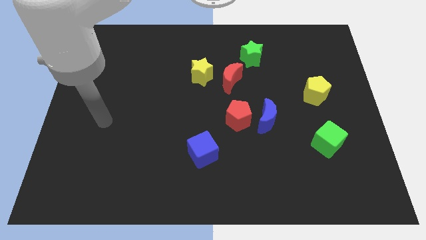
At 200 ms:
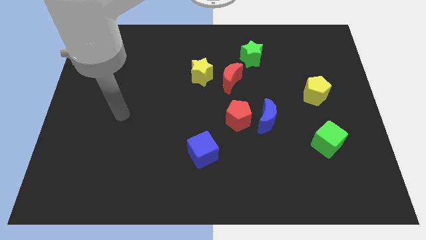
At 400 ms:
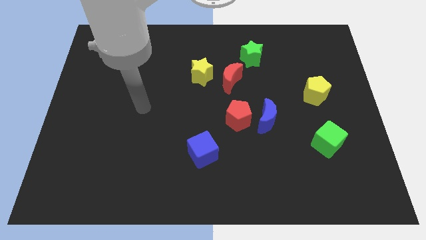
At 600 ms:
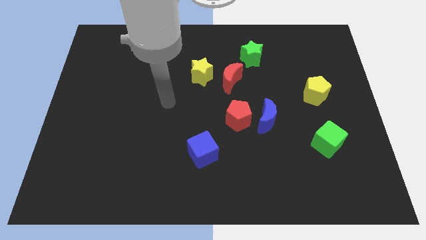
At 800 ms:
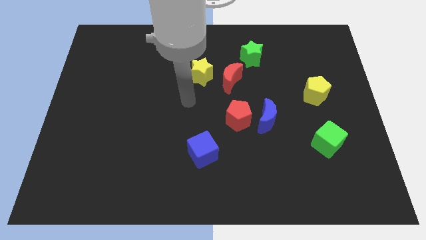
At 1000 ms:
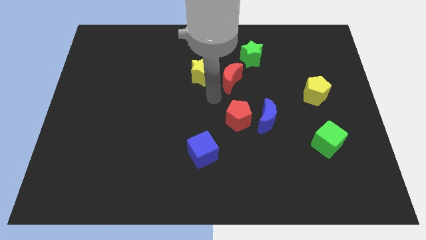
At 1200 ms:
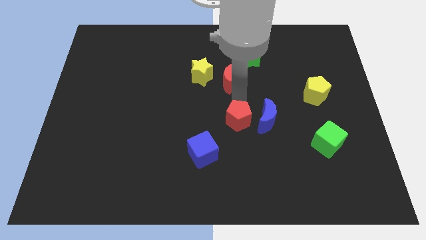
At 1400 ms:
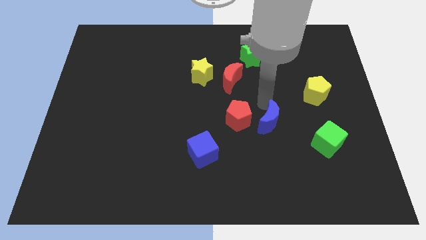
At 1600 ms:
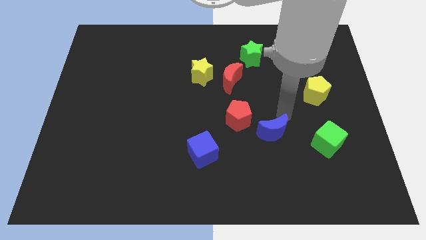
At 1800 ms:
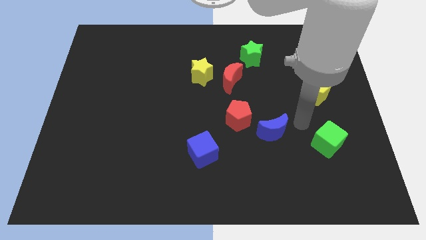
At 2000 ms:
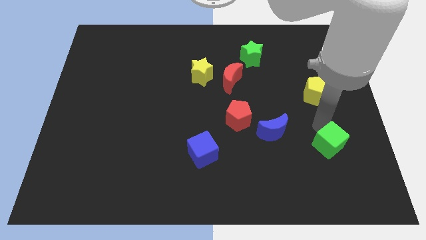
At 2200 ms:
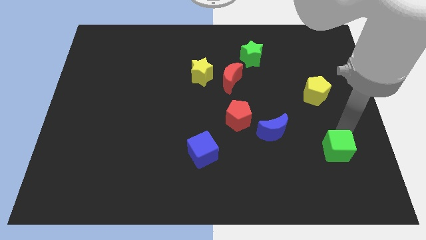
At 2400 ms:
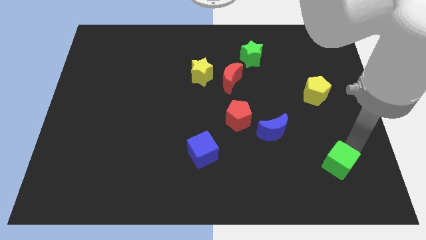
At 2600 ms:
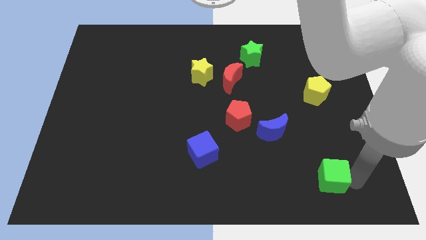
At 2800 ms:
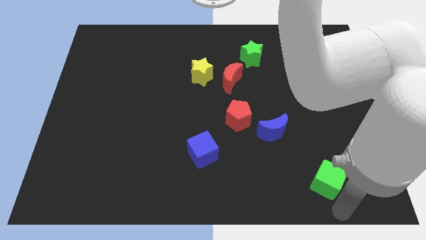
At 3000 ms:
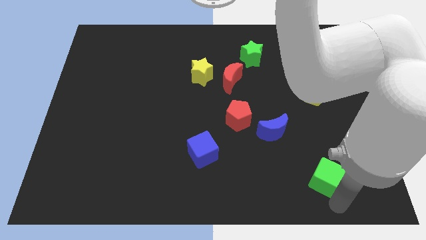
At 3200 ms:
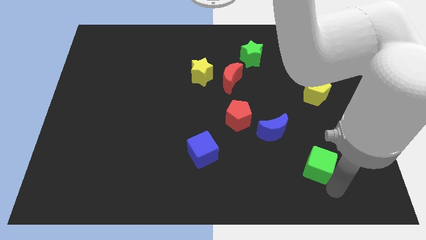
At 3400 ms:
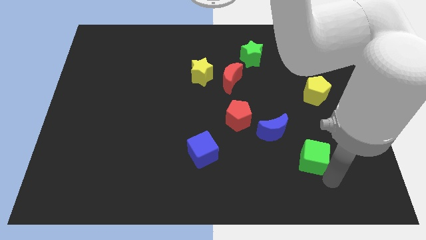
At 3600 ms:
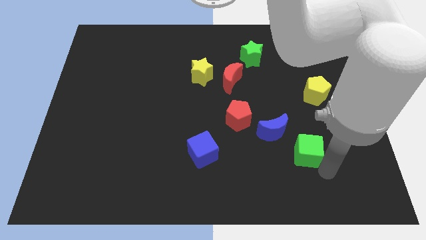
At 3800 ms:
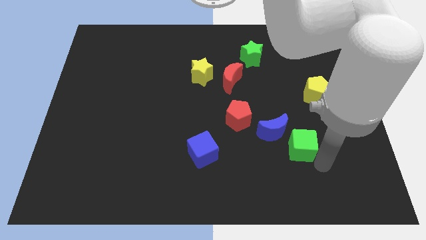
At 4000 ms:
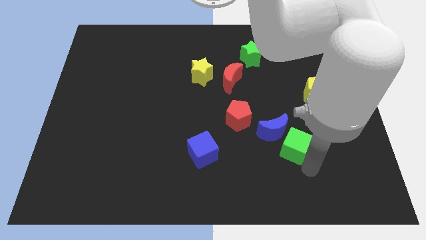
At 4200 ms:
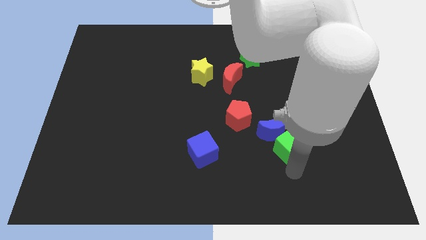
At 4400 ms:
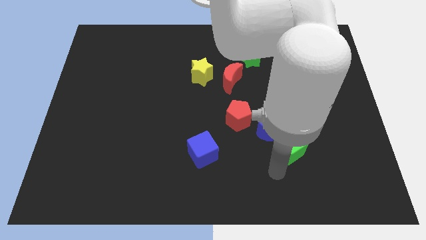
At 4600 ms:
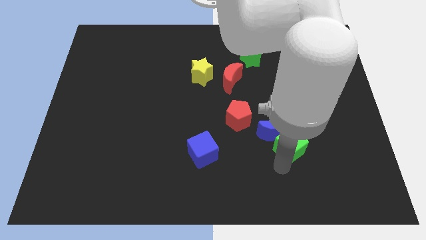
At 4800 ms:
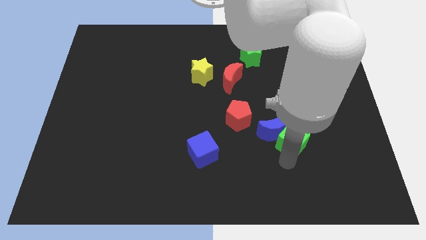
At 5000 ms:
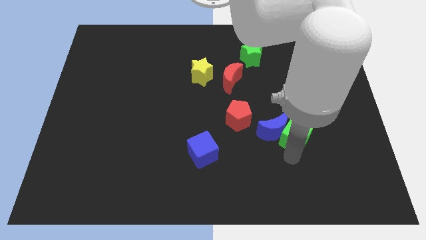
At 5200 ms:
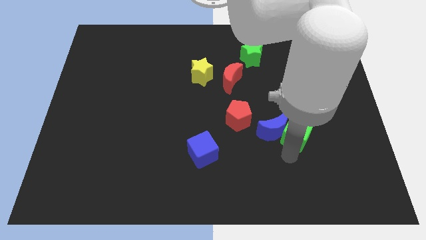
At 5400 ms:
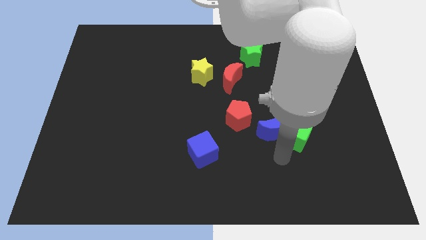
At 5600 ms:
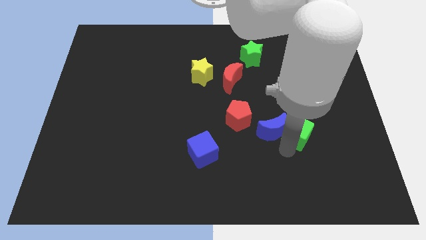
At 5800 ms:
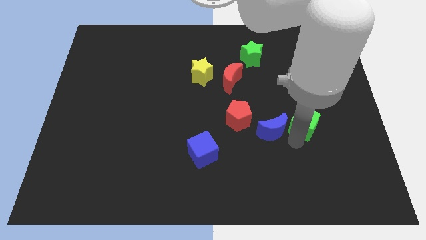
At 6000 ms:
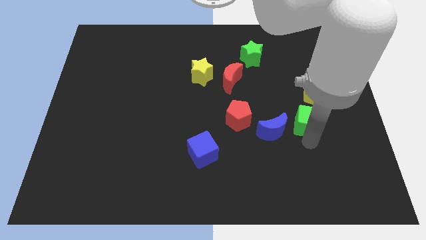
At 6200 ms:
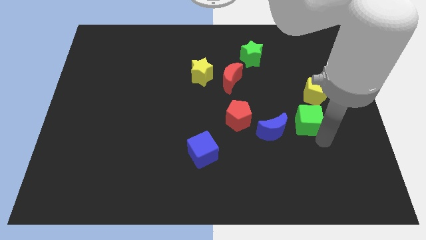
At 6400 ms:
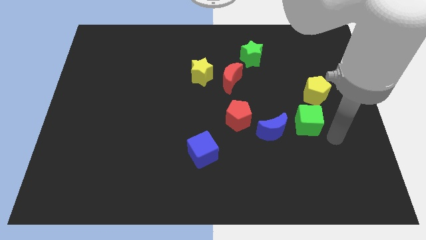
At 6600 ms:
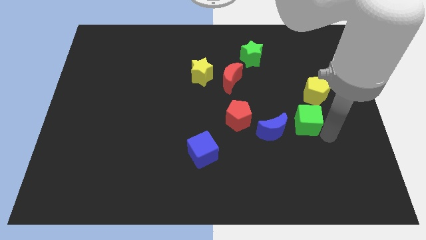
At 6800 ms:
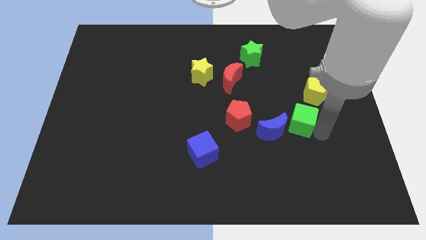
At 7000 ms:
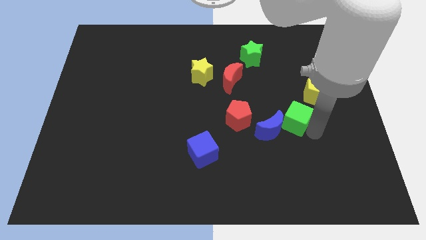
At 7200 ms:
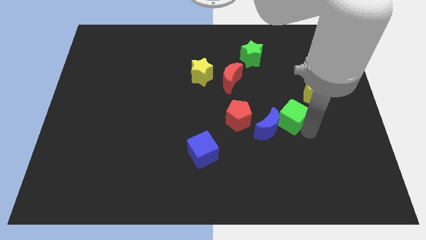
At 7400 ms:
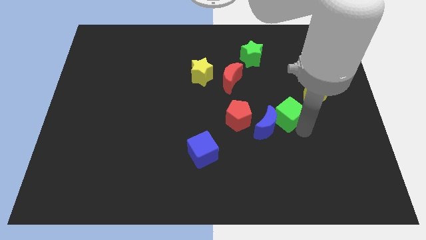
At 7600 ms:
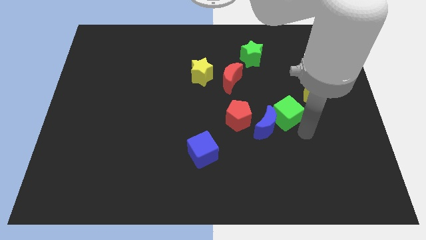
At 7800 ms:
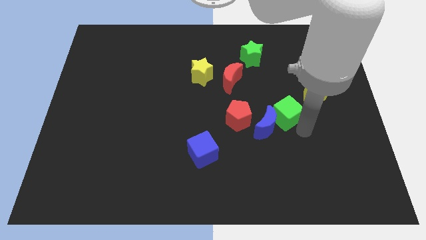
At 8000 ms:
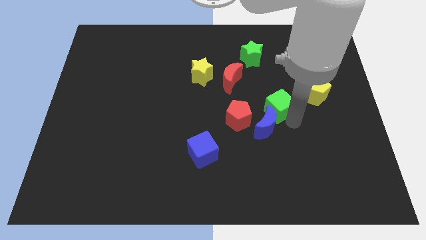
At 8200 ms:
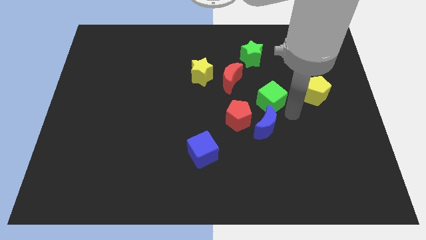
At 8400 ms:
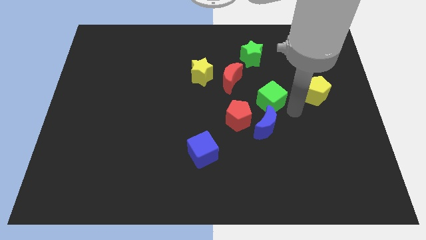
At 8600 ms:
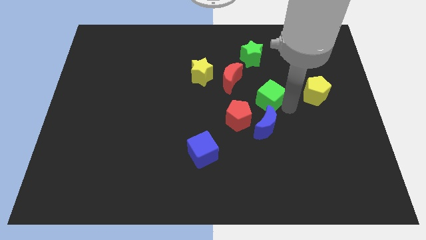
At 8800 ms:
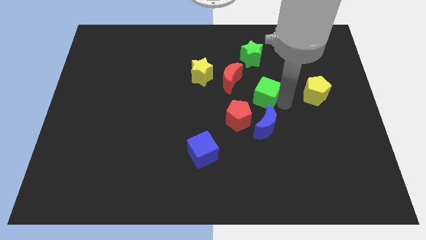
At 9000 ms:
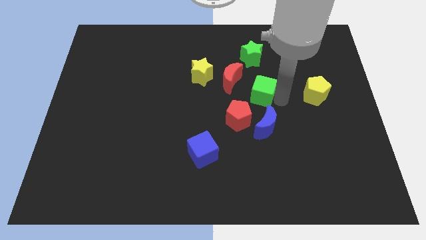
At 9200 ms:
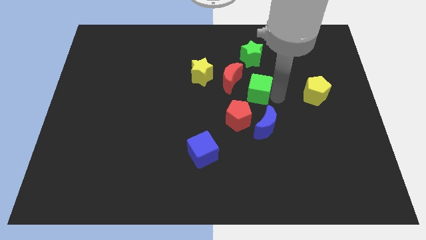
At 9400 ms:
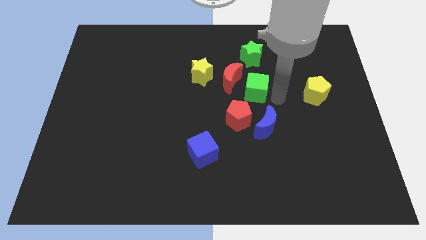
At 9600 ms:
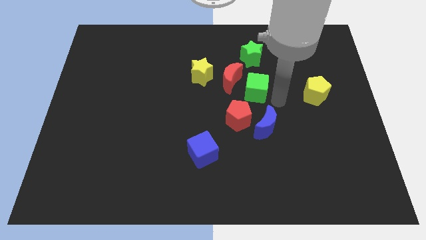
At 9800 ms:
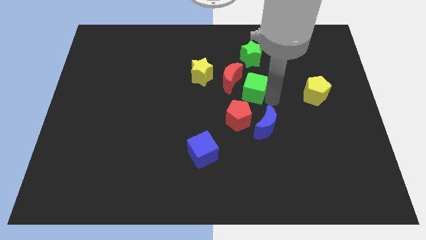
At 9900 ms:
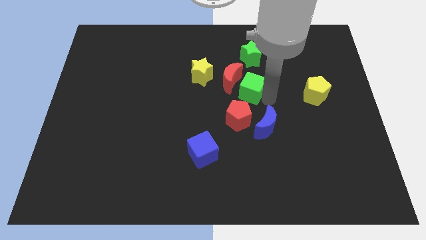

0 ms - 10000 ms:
push the green cube close to the red moon
